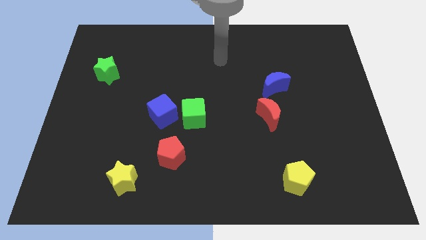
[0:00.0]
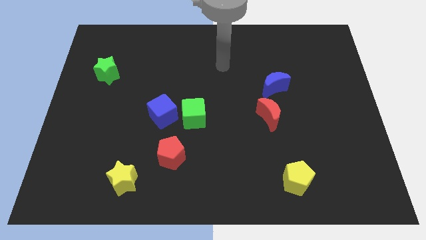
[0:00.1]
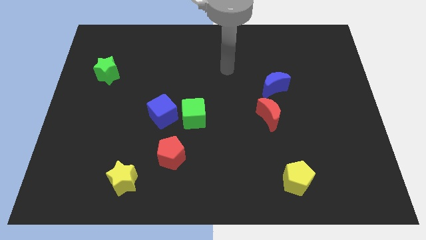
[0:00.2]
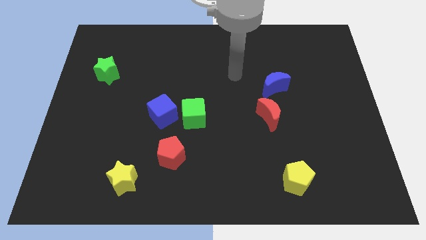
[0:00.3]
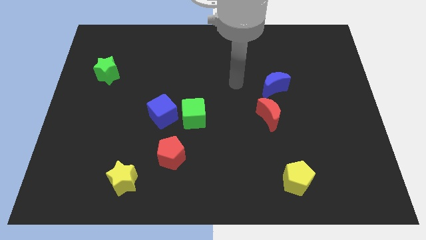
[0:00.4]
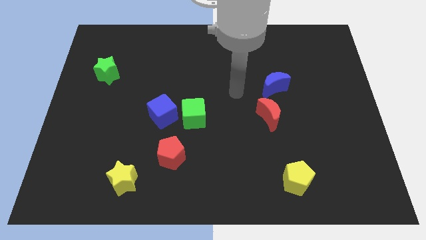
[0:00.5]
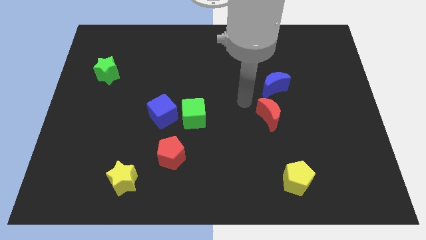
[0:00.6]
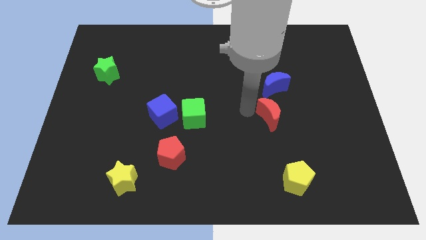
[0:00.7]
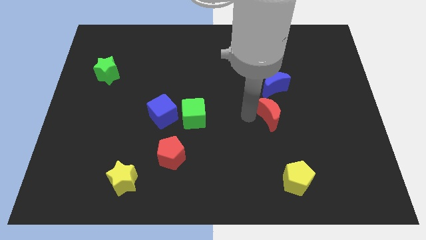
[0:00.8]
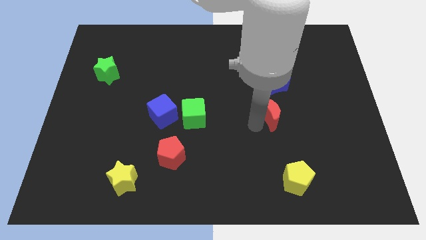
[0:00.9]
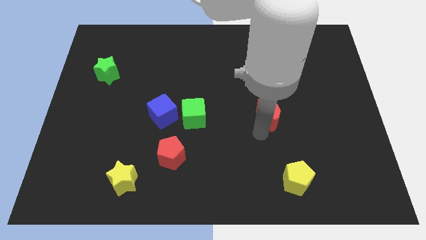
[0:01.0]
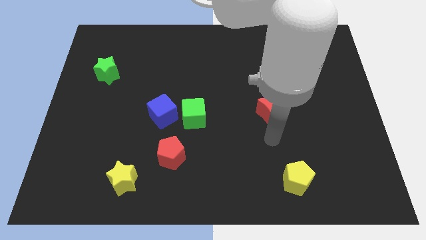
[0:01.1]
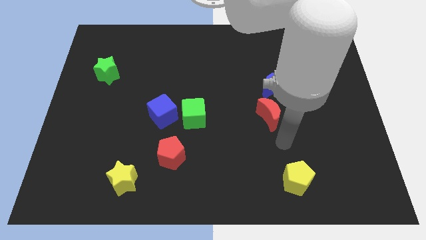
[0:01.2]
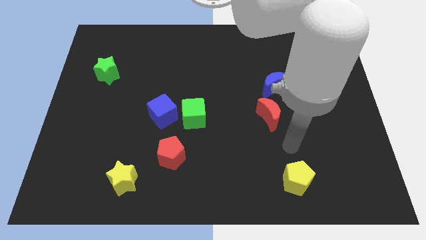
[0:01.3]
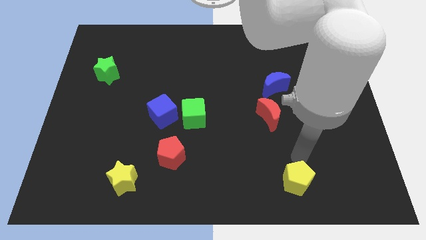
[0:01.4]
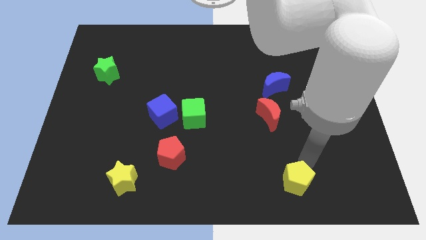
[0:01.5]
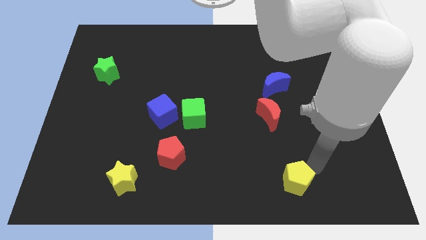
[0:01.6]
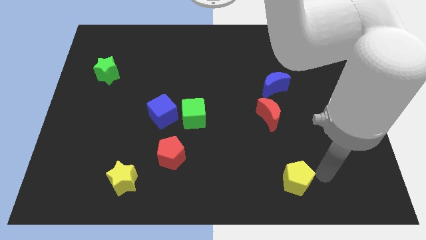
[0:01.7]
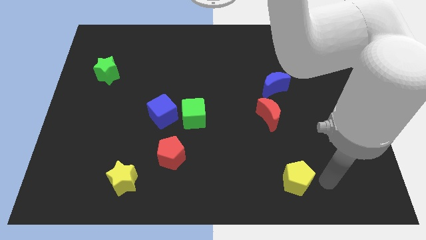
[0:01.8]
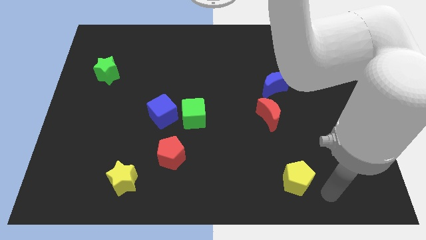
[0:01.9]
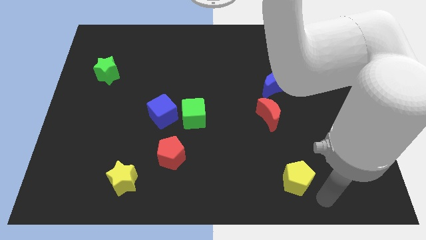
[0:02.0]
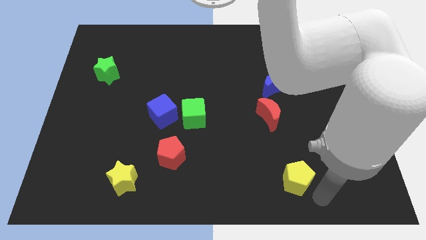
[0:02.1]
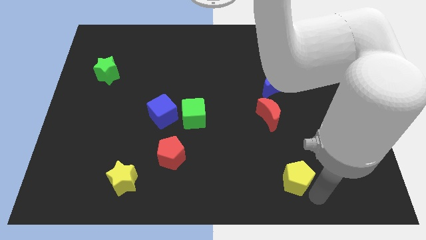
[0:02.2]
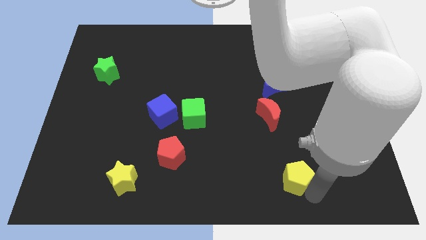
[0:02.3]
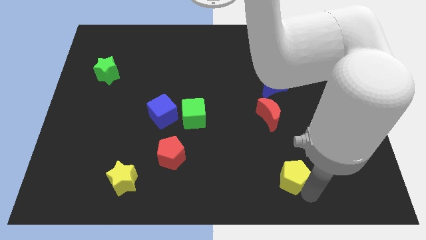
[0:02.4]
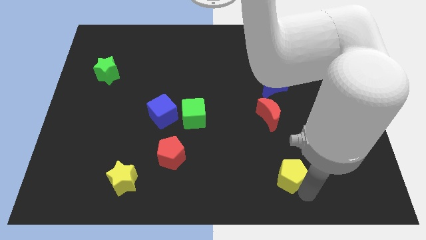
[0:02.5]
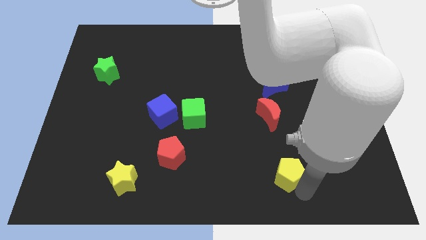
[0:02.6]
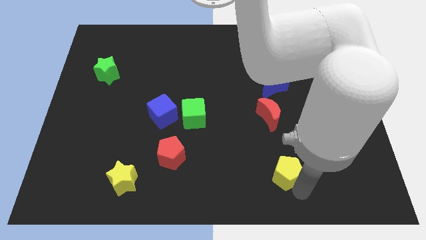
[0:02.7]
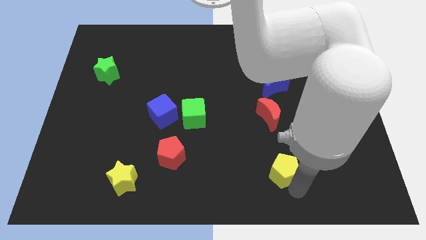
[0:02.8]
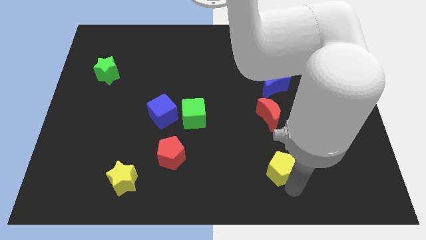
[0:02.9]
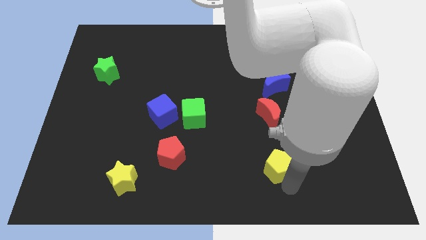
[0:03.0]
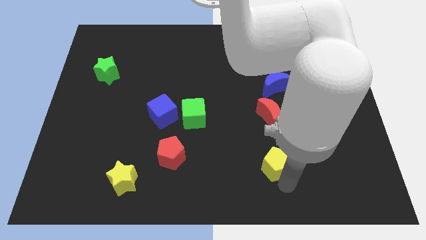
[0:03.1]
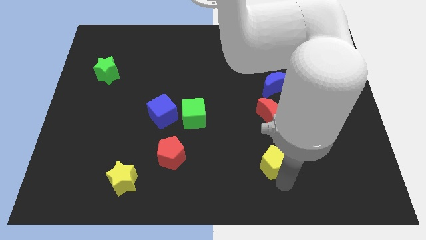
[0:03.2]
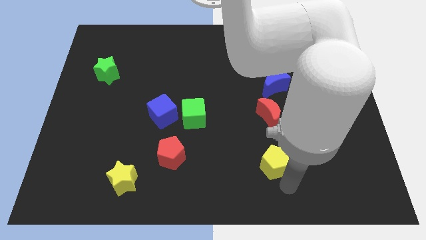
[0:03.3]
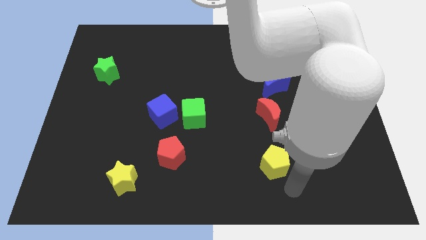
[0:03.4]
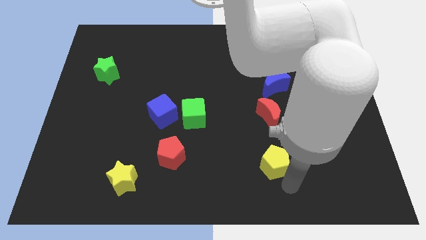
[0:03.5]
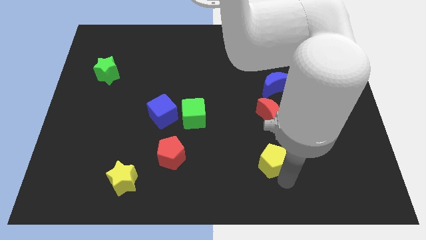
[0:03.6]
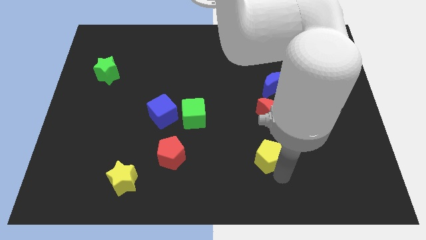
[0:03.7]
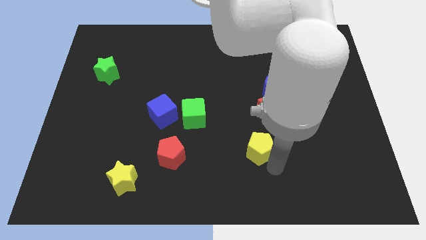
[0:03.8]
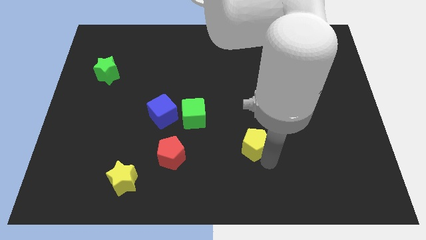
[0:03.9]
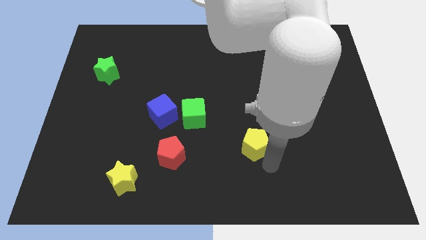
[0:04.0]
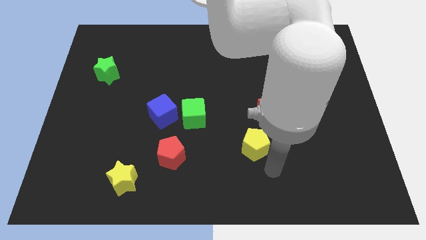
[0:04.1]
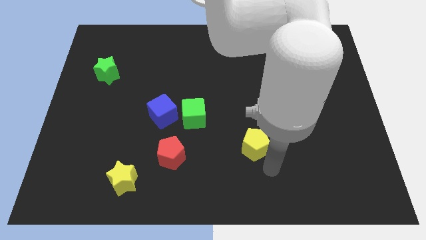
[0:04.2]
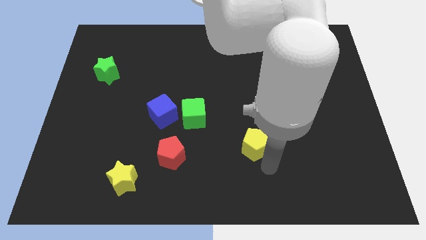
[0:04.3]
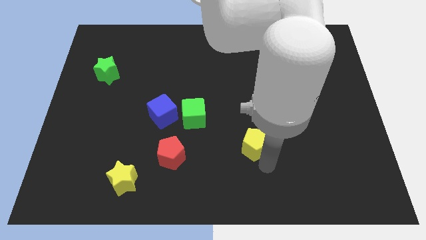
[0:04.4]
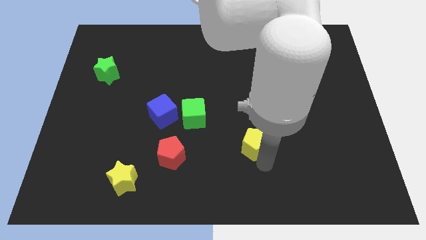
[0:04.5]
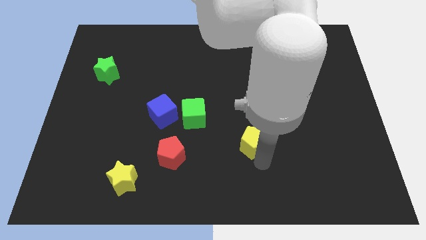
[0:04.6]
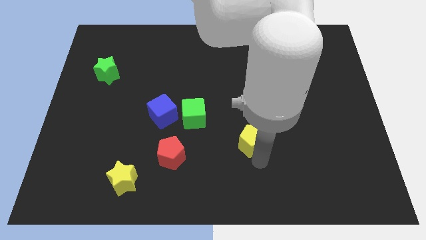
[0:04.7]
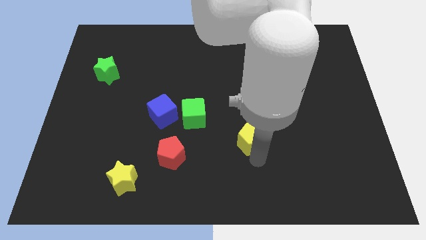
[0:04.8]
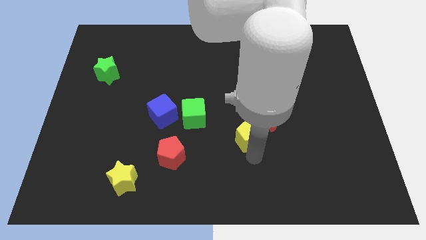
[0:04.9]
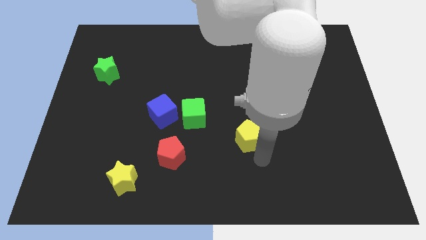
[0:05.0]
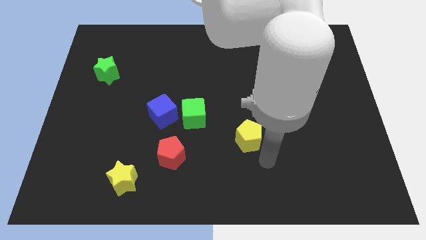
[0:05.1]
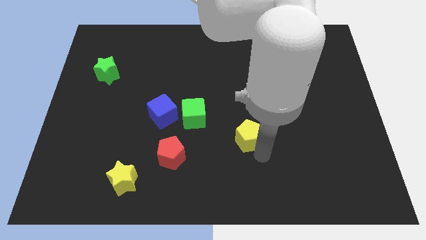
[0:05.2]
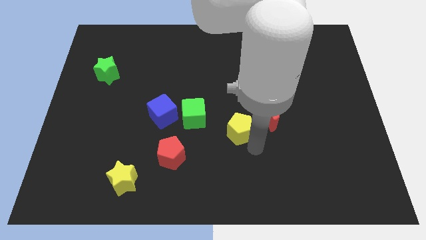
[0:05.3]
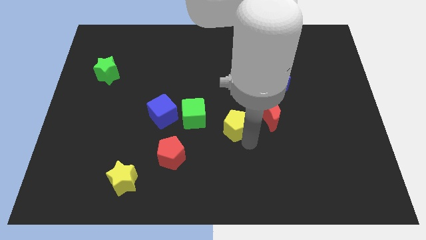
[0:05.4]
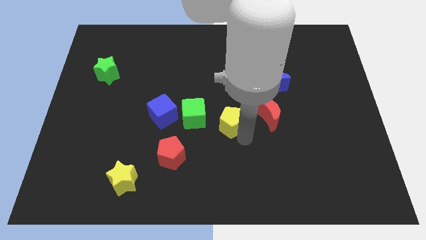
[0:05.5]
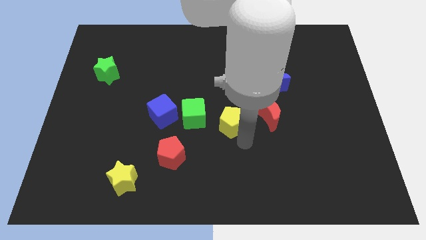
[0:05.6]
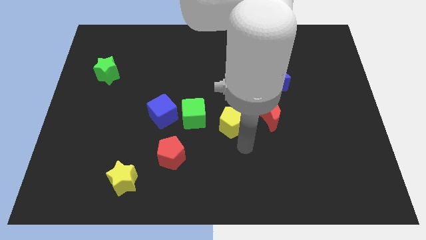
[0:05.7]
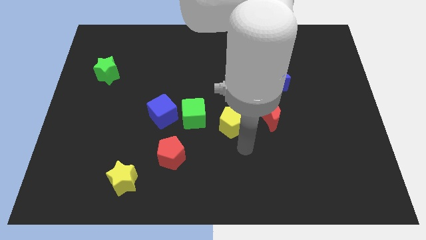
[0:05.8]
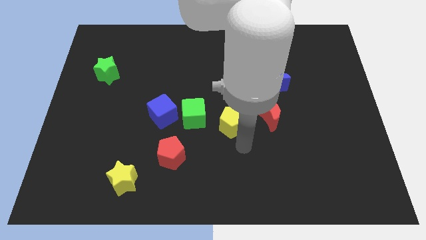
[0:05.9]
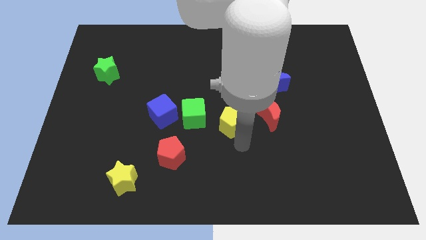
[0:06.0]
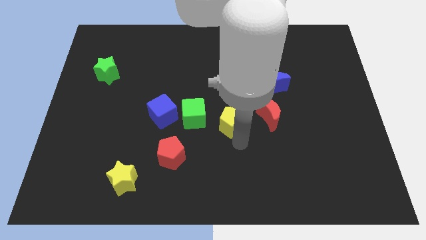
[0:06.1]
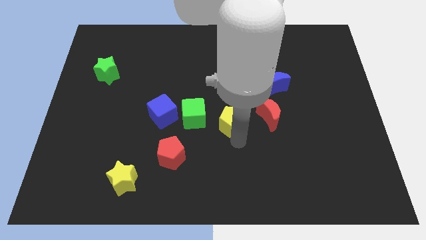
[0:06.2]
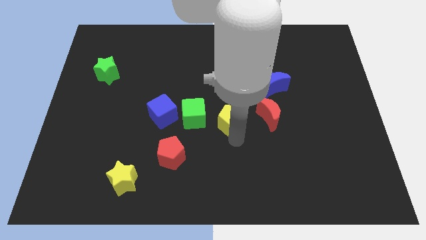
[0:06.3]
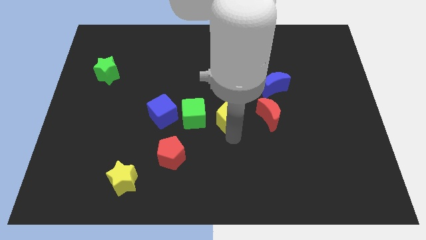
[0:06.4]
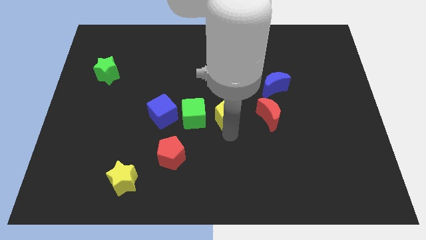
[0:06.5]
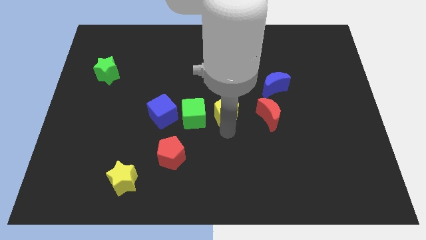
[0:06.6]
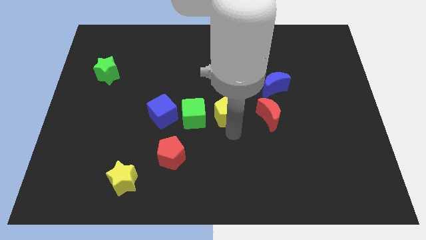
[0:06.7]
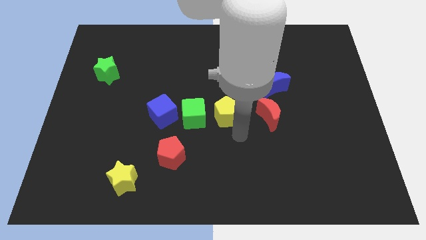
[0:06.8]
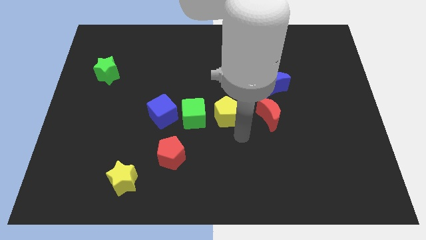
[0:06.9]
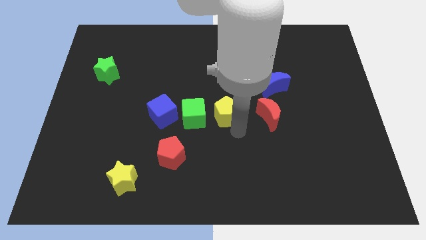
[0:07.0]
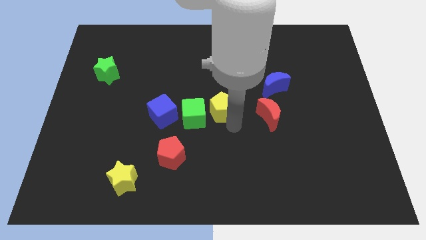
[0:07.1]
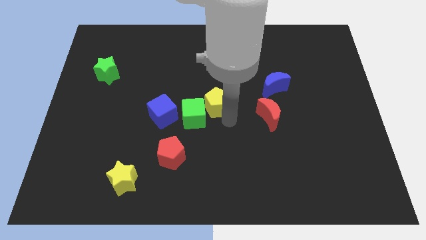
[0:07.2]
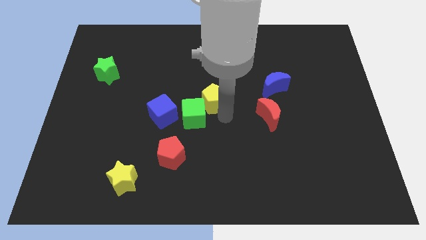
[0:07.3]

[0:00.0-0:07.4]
slide the yellow pentagon to the top of the green cube

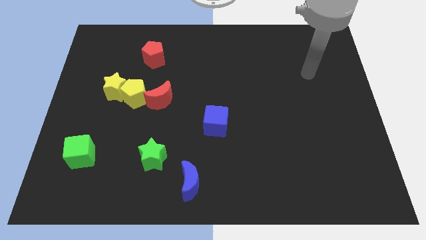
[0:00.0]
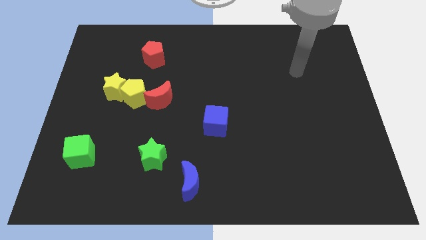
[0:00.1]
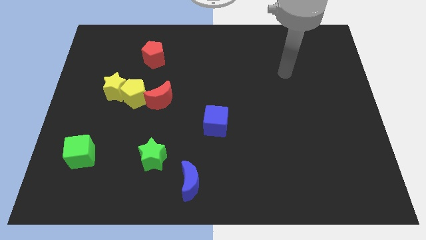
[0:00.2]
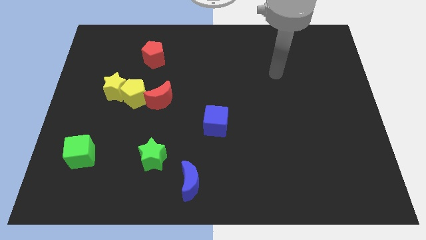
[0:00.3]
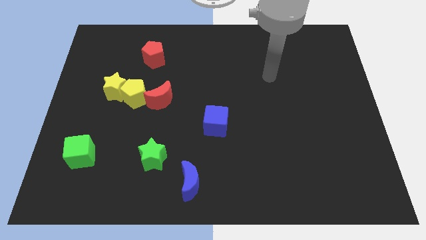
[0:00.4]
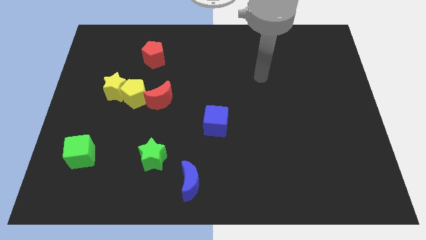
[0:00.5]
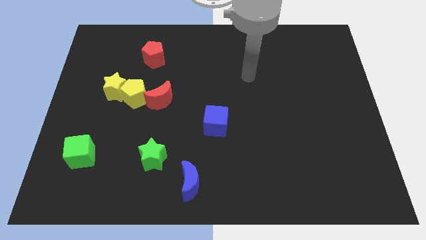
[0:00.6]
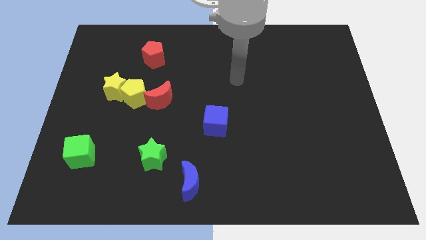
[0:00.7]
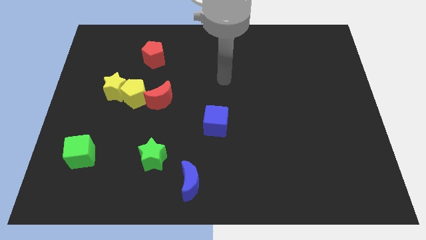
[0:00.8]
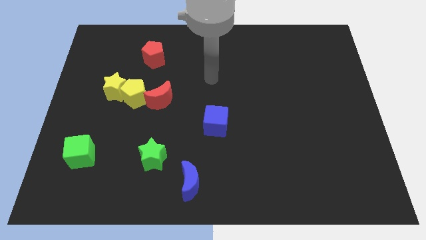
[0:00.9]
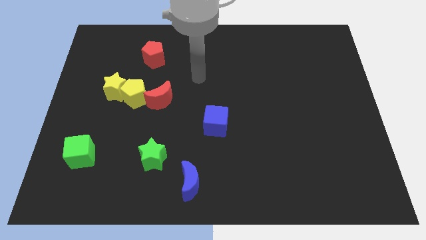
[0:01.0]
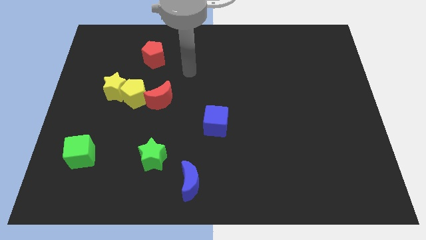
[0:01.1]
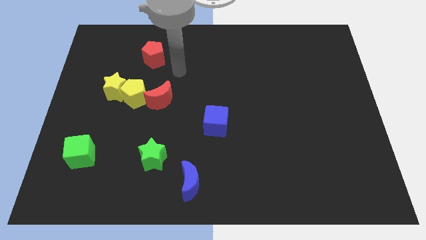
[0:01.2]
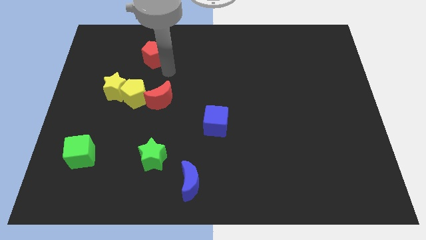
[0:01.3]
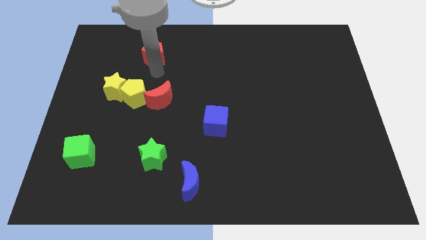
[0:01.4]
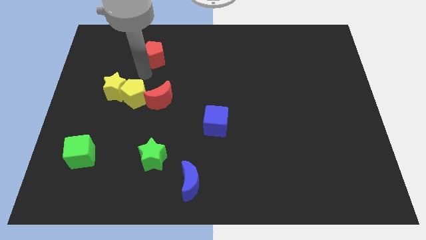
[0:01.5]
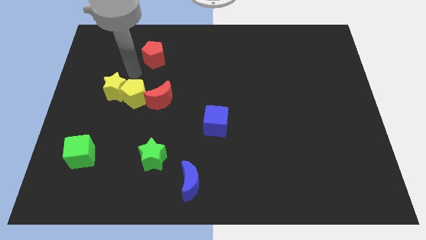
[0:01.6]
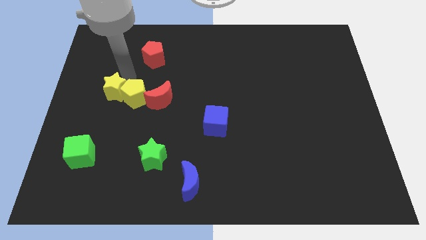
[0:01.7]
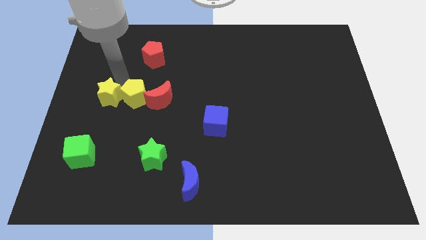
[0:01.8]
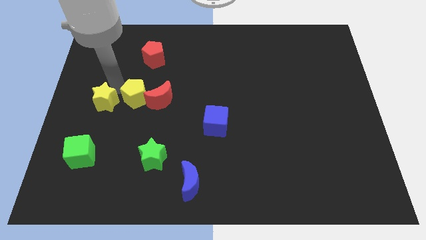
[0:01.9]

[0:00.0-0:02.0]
push the yellow star to the top of the green cube
